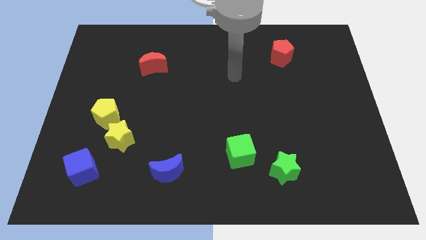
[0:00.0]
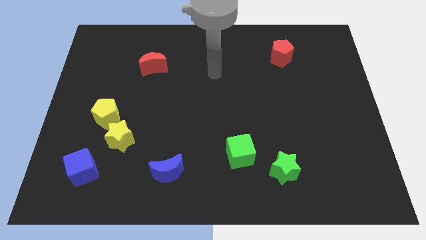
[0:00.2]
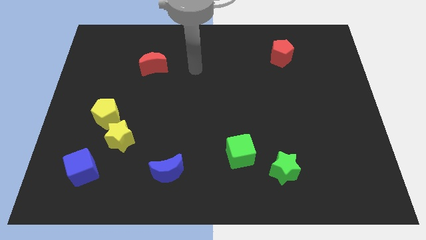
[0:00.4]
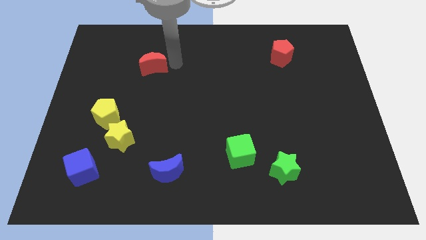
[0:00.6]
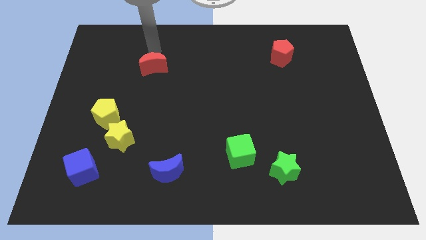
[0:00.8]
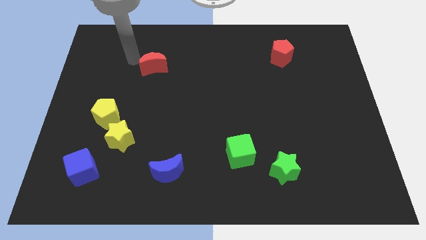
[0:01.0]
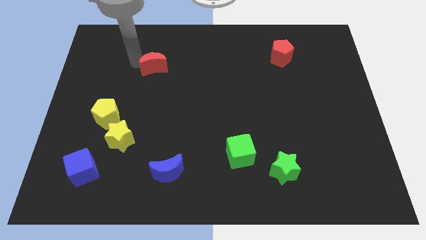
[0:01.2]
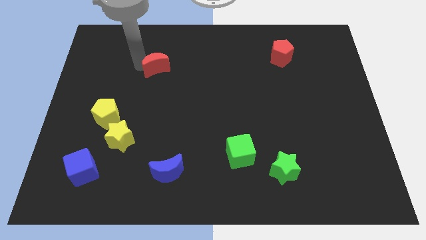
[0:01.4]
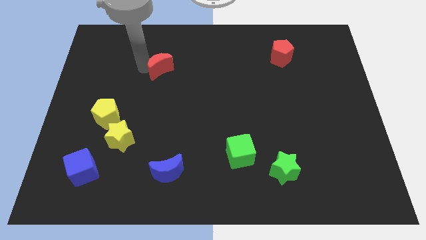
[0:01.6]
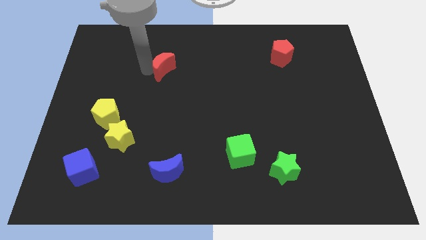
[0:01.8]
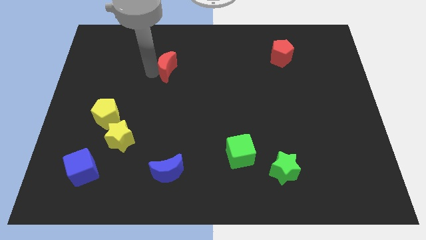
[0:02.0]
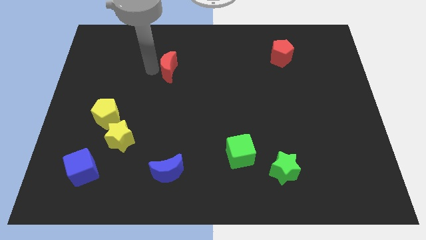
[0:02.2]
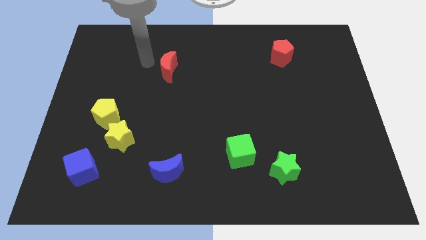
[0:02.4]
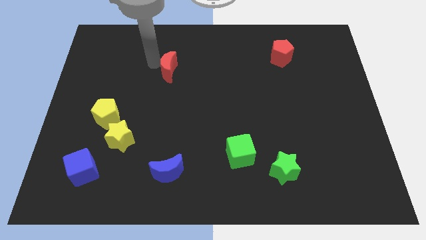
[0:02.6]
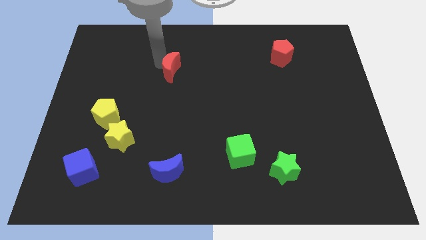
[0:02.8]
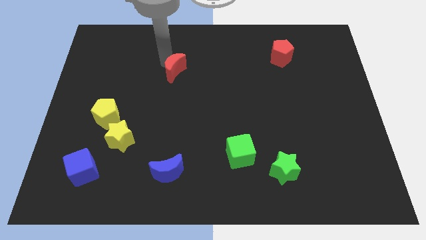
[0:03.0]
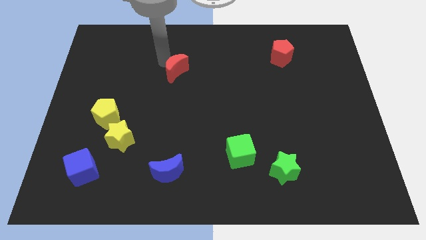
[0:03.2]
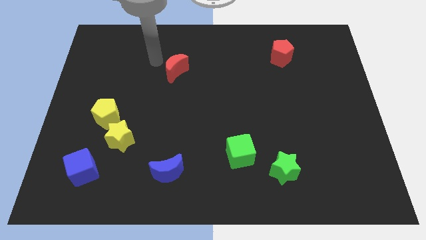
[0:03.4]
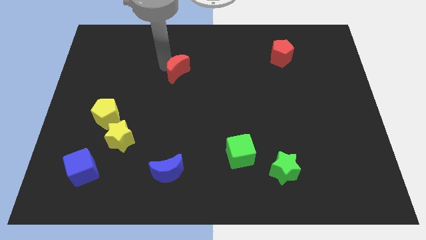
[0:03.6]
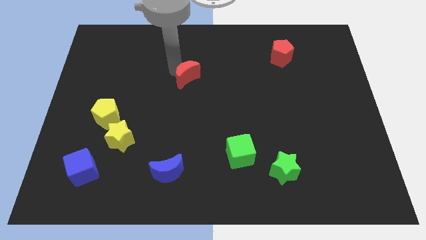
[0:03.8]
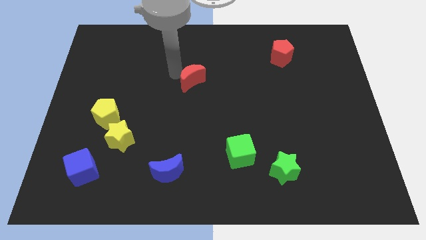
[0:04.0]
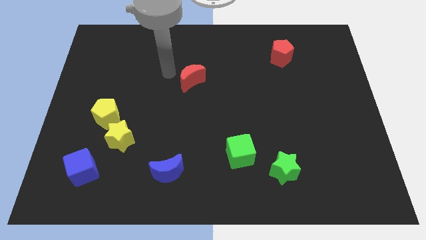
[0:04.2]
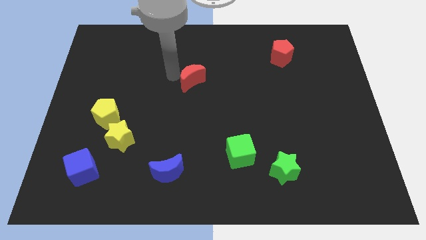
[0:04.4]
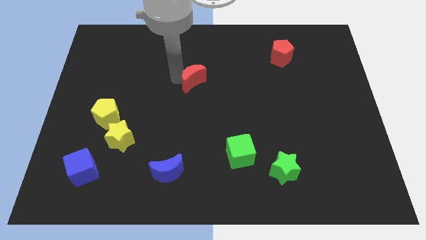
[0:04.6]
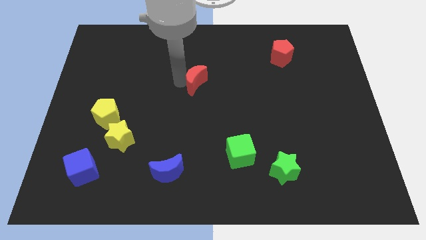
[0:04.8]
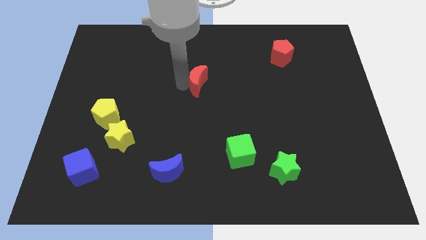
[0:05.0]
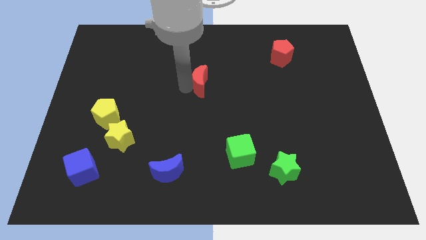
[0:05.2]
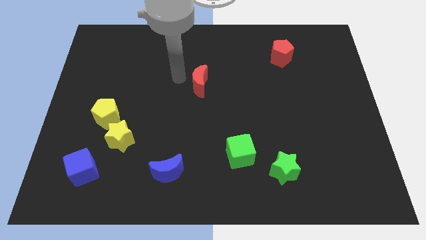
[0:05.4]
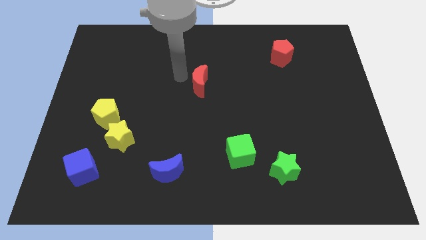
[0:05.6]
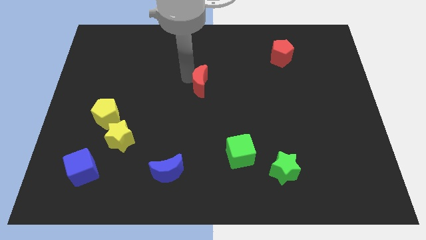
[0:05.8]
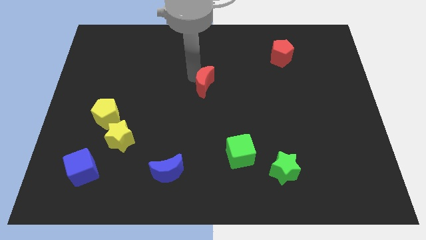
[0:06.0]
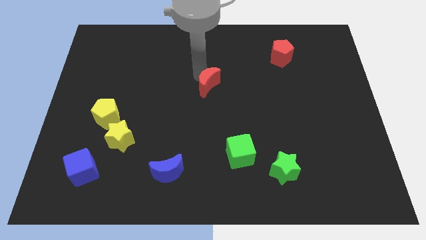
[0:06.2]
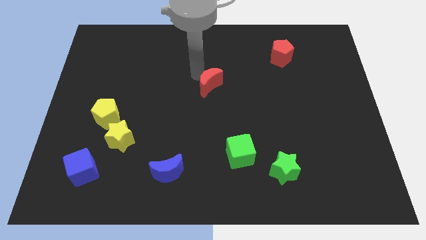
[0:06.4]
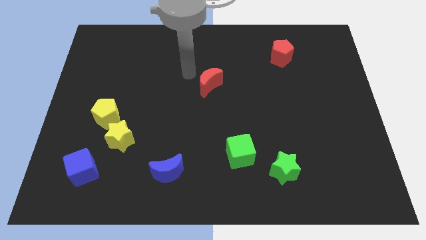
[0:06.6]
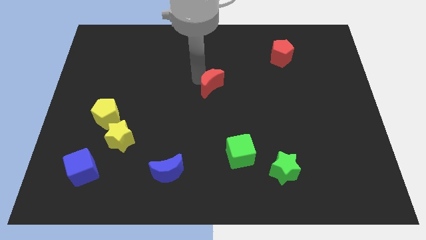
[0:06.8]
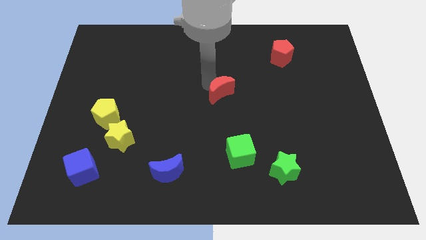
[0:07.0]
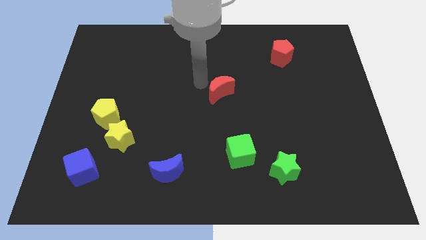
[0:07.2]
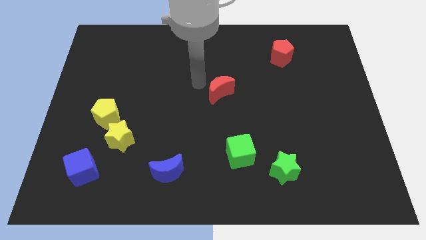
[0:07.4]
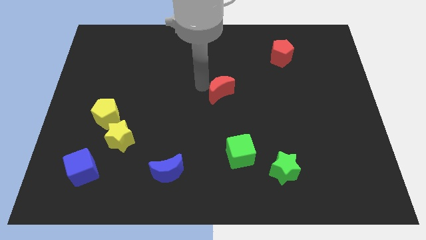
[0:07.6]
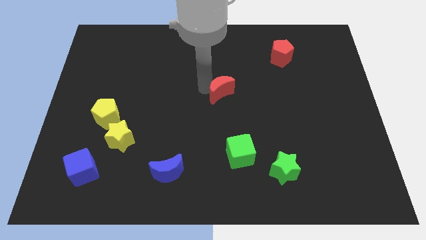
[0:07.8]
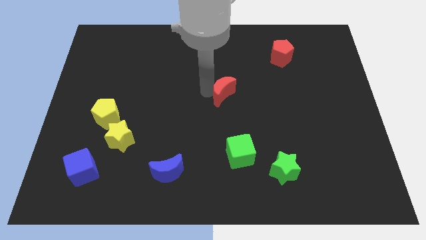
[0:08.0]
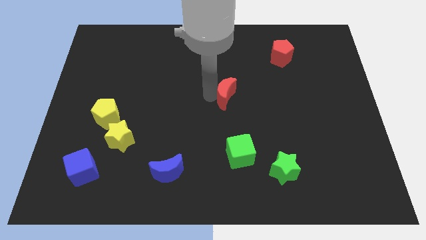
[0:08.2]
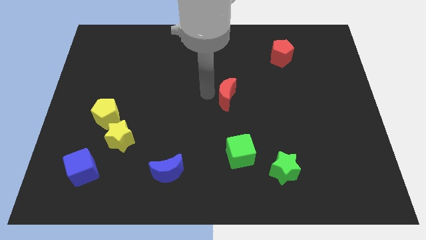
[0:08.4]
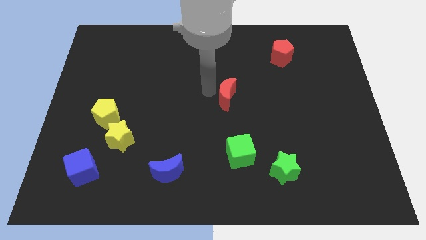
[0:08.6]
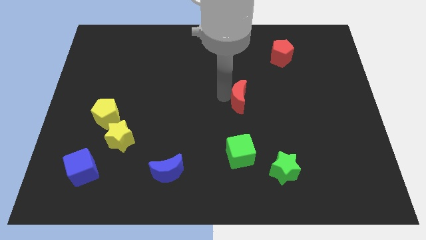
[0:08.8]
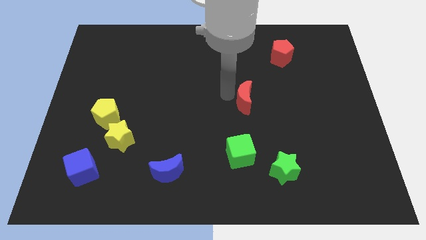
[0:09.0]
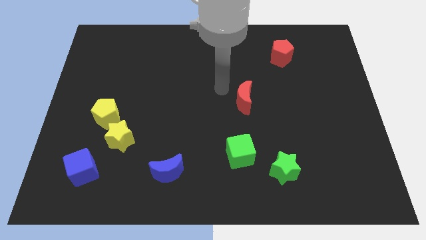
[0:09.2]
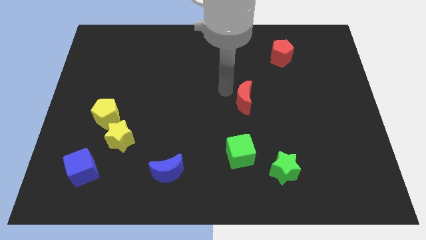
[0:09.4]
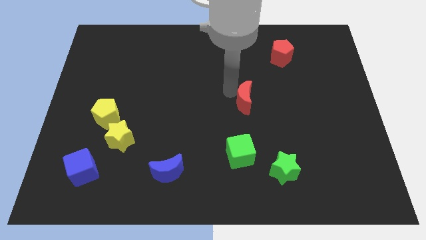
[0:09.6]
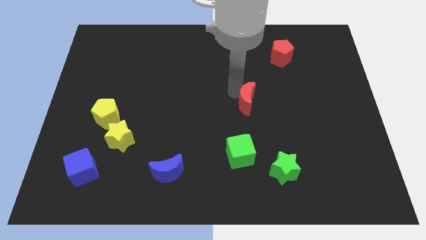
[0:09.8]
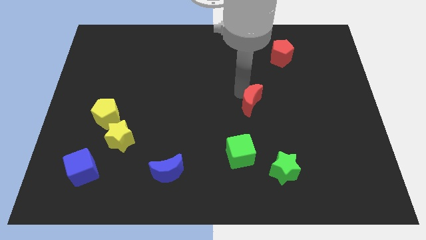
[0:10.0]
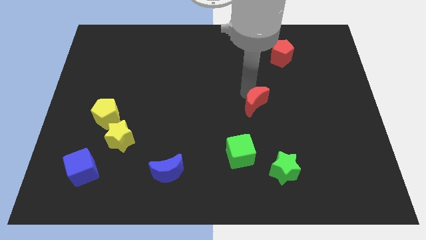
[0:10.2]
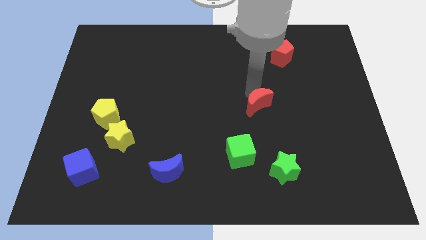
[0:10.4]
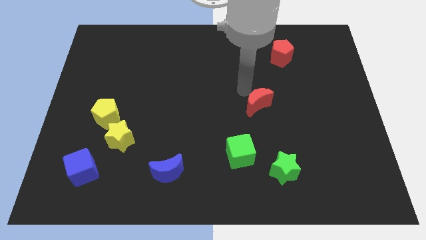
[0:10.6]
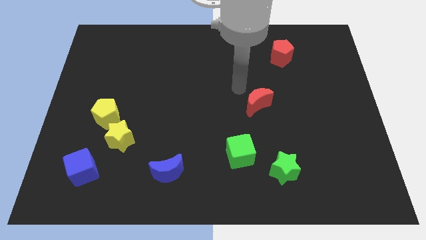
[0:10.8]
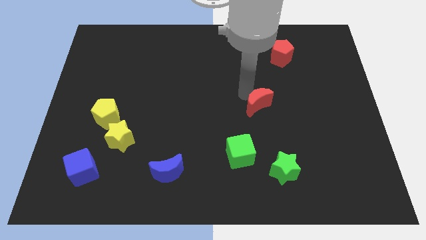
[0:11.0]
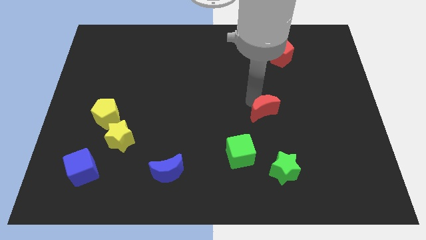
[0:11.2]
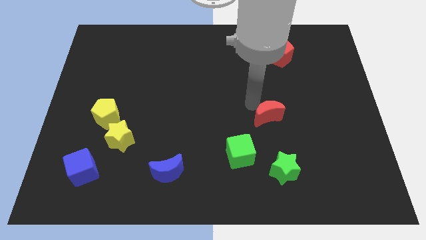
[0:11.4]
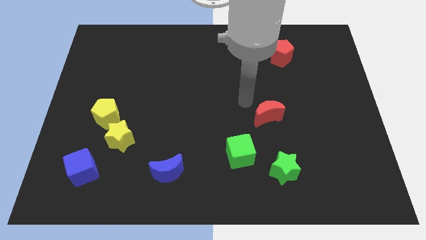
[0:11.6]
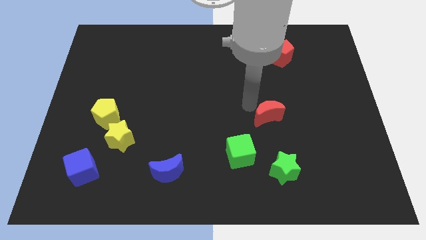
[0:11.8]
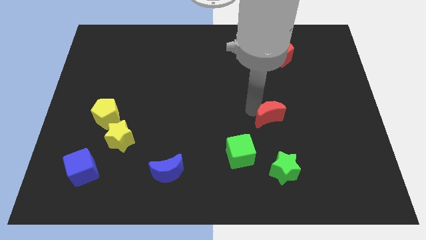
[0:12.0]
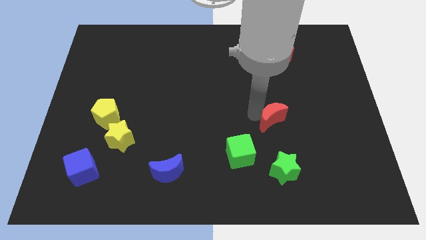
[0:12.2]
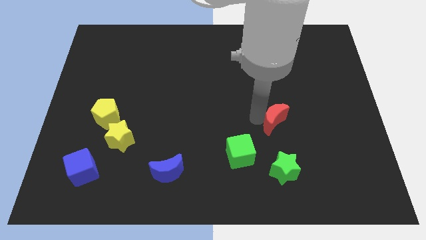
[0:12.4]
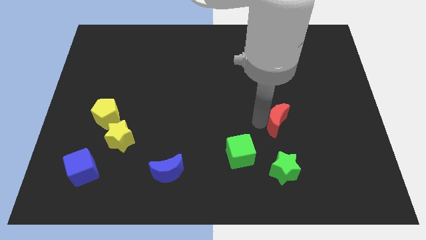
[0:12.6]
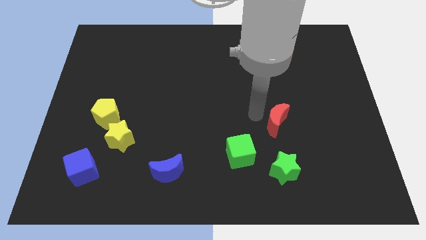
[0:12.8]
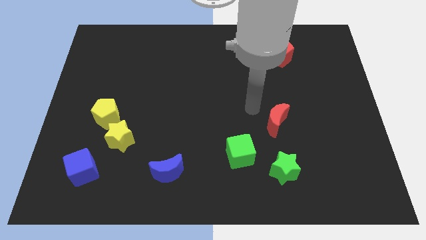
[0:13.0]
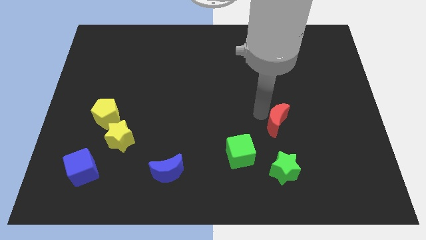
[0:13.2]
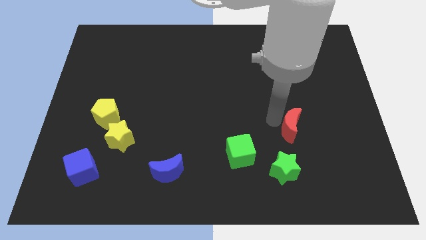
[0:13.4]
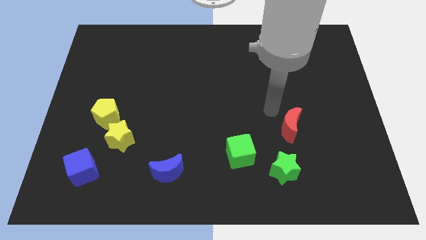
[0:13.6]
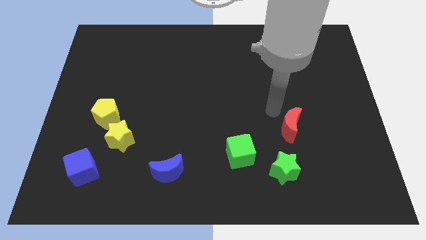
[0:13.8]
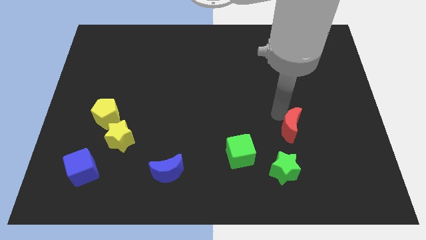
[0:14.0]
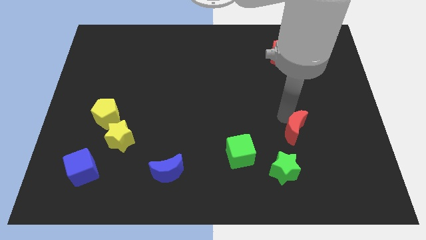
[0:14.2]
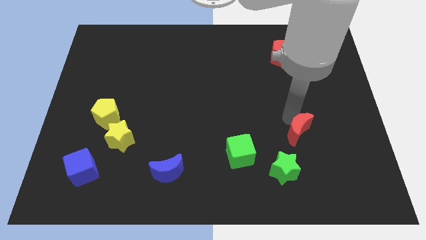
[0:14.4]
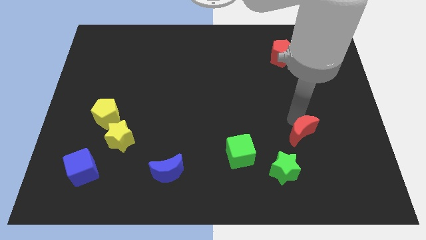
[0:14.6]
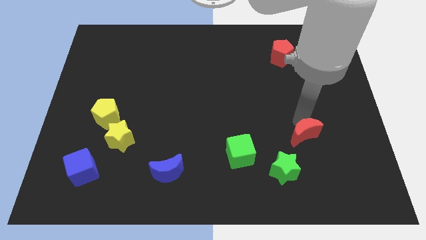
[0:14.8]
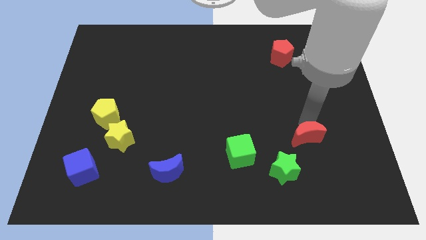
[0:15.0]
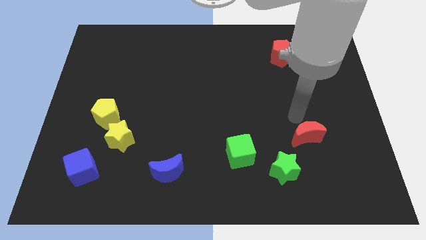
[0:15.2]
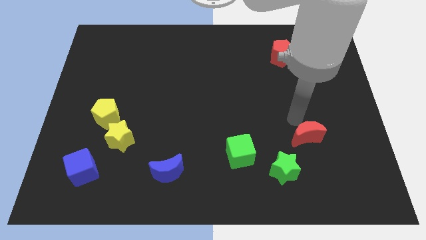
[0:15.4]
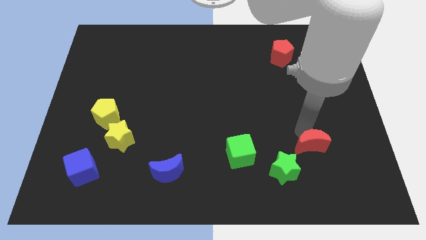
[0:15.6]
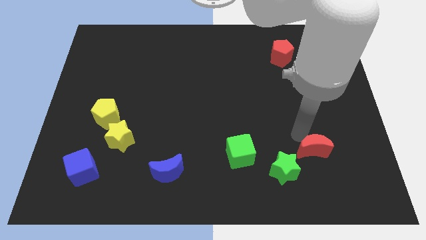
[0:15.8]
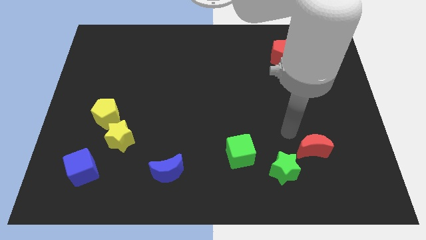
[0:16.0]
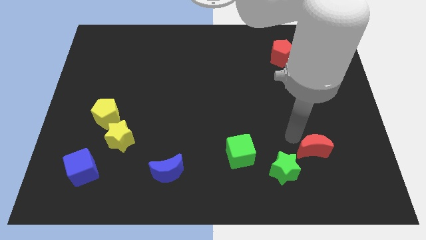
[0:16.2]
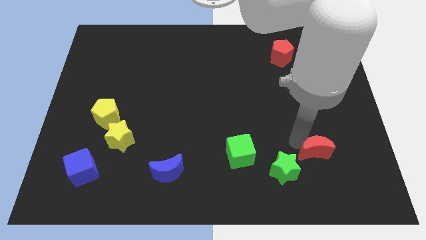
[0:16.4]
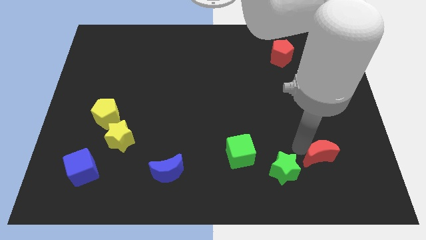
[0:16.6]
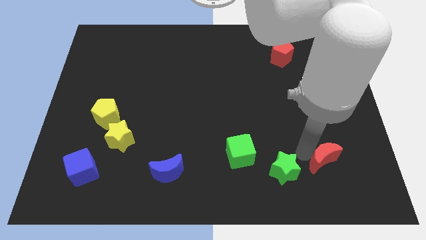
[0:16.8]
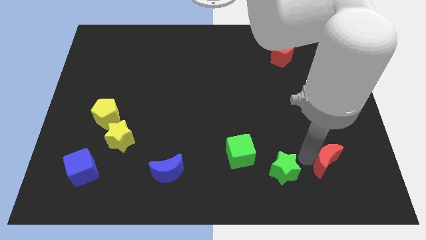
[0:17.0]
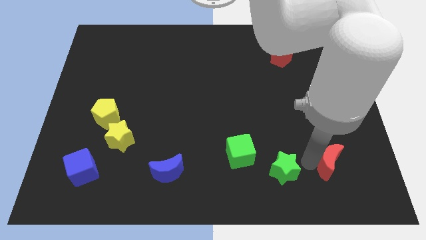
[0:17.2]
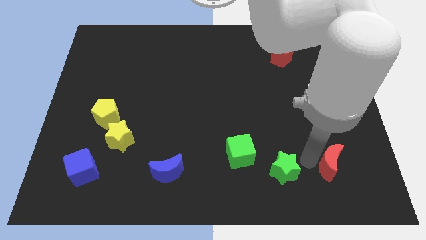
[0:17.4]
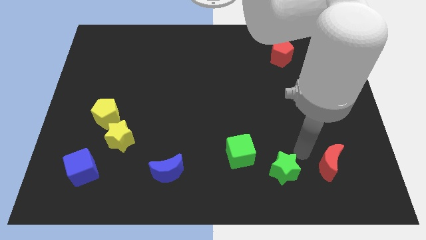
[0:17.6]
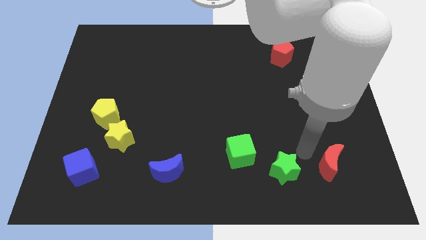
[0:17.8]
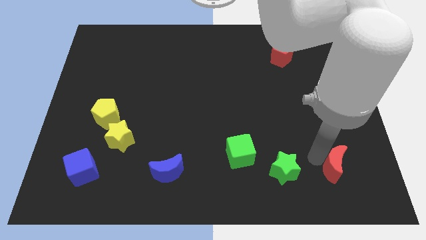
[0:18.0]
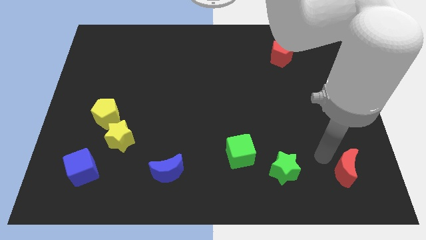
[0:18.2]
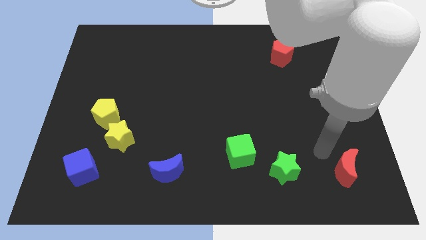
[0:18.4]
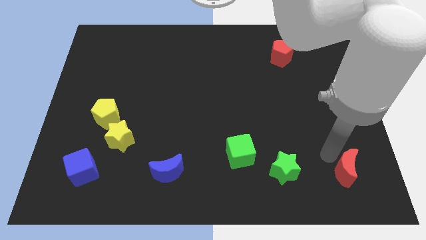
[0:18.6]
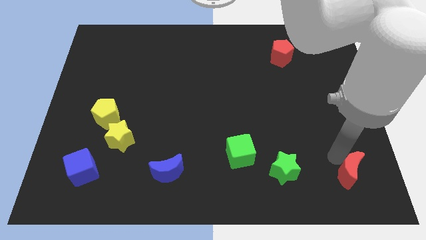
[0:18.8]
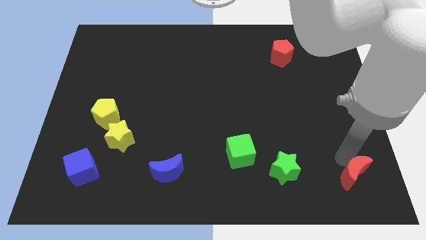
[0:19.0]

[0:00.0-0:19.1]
slide the red moon to the bottom right corner
